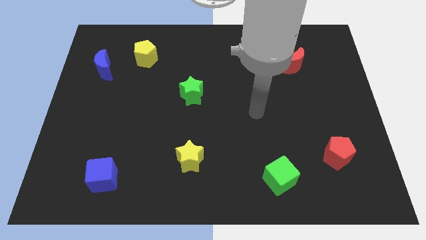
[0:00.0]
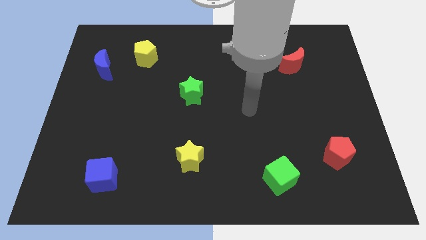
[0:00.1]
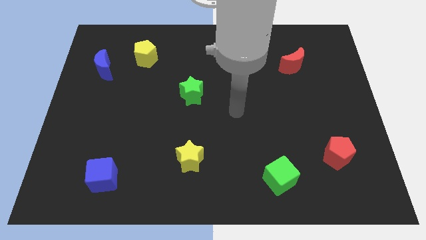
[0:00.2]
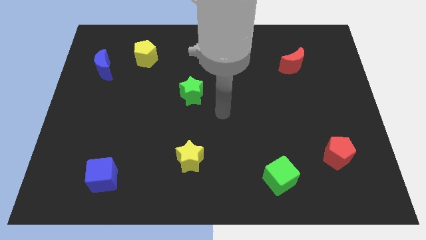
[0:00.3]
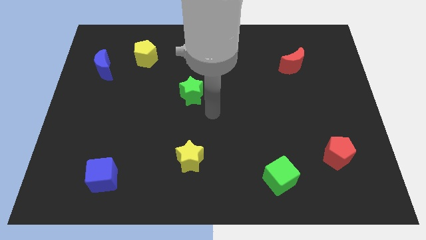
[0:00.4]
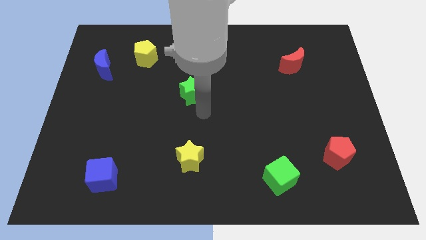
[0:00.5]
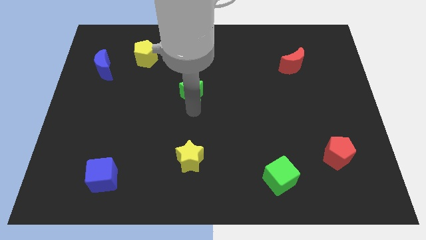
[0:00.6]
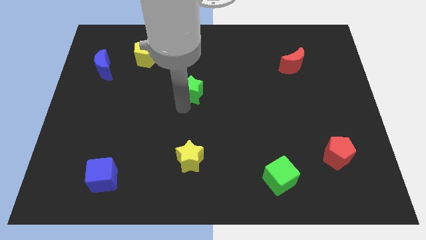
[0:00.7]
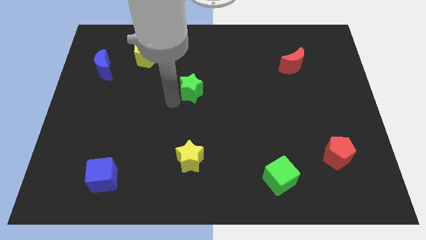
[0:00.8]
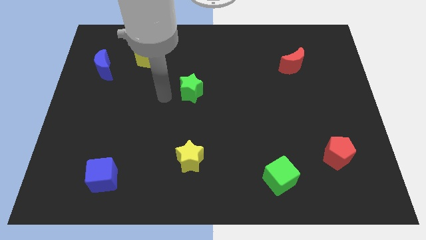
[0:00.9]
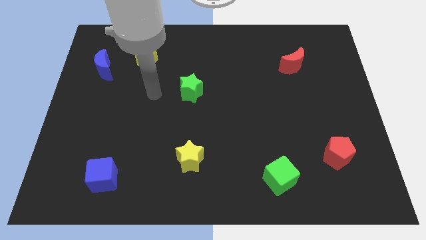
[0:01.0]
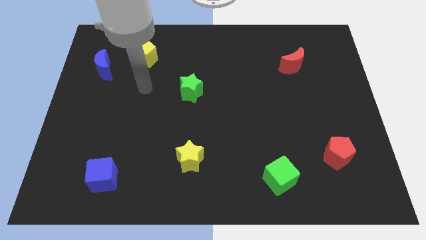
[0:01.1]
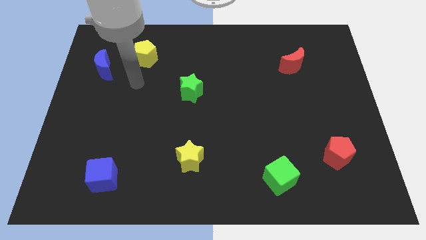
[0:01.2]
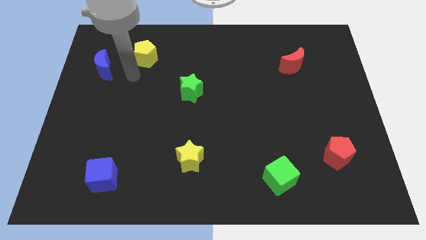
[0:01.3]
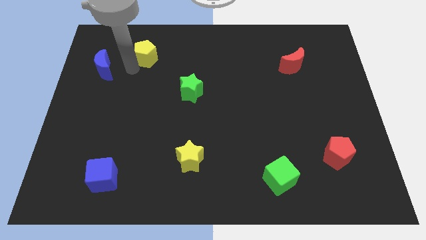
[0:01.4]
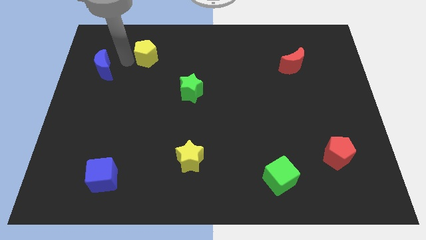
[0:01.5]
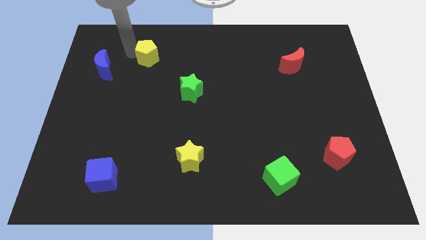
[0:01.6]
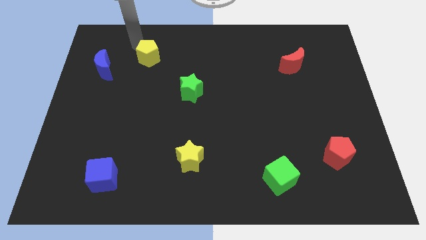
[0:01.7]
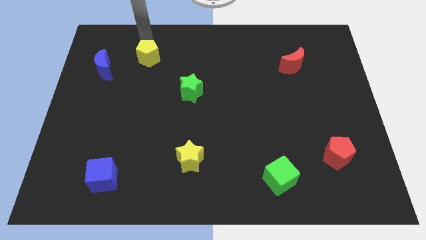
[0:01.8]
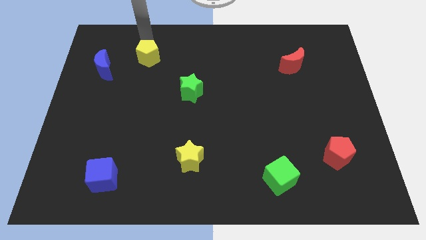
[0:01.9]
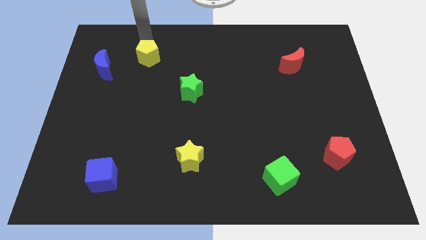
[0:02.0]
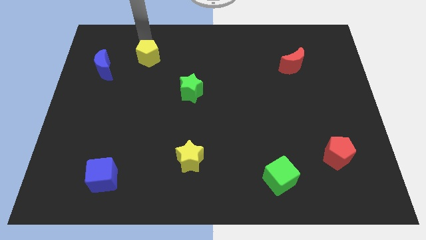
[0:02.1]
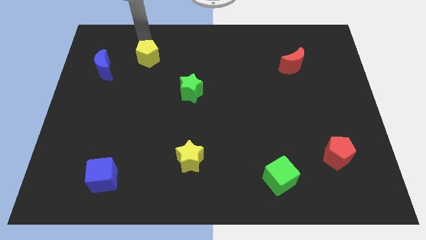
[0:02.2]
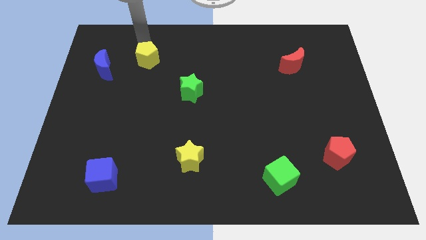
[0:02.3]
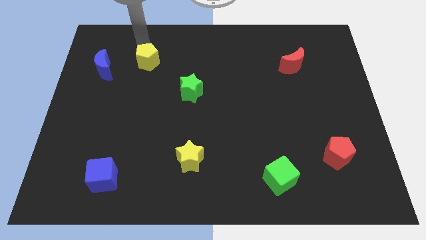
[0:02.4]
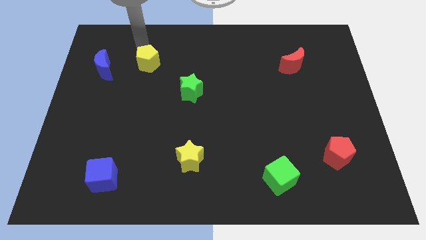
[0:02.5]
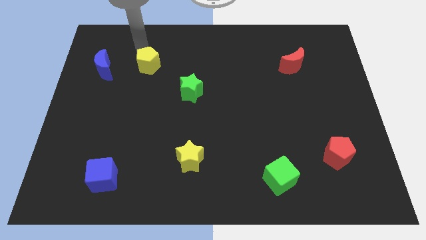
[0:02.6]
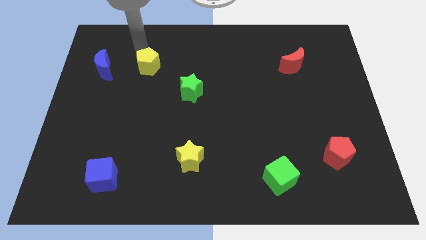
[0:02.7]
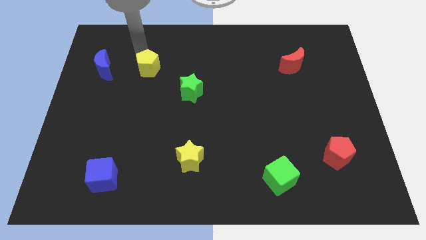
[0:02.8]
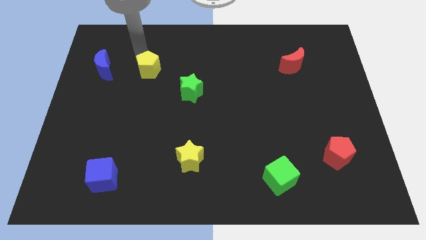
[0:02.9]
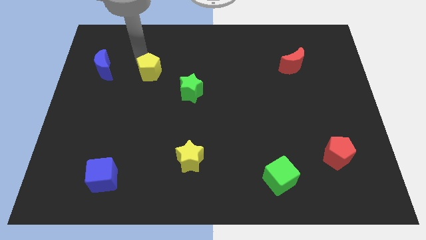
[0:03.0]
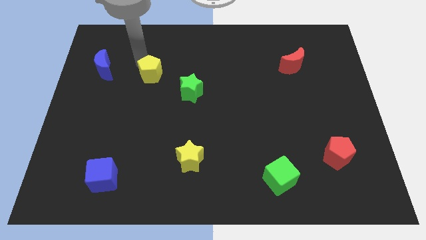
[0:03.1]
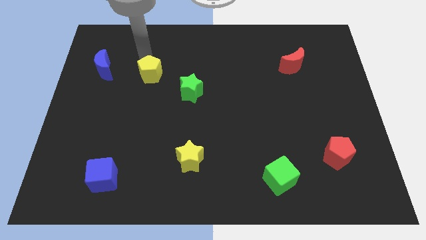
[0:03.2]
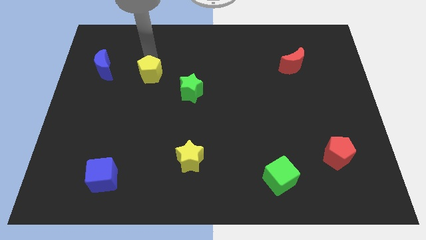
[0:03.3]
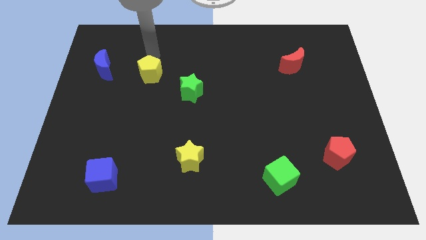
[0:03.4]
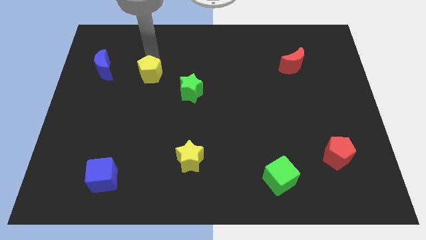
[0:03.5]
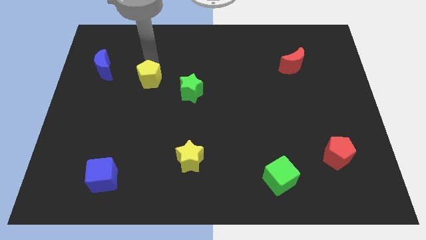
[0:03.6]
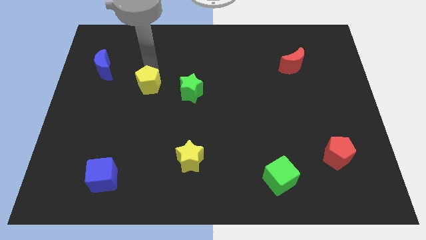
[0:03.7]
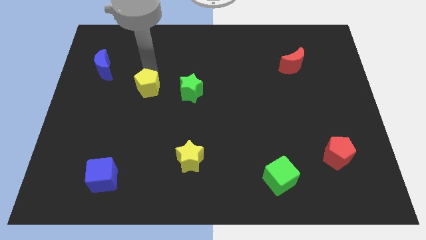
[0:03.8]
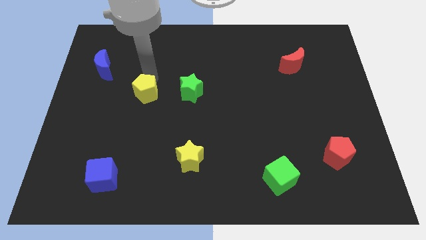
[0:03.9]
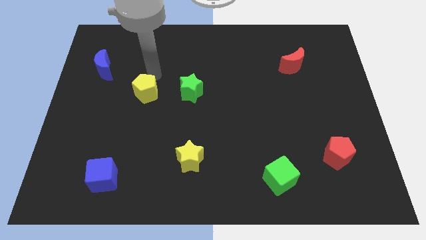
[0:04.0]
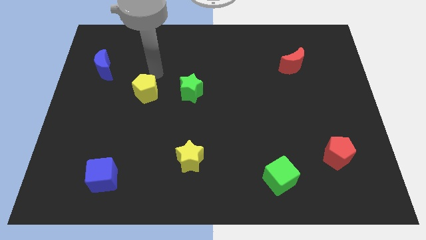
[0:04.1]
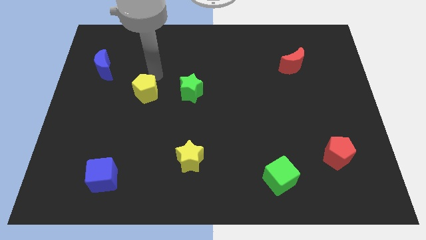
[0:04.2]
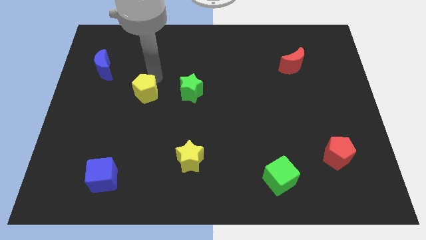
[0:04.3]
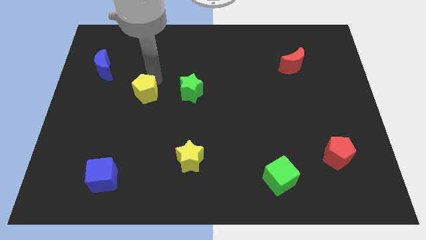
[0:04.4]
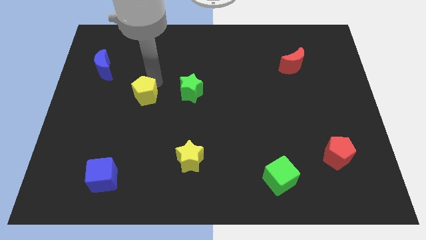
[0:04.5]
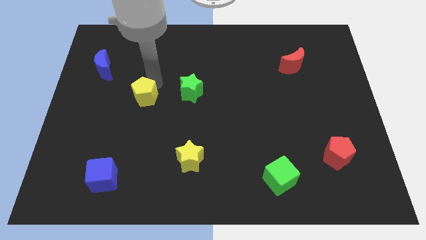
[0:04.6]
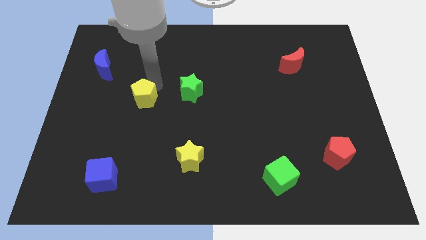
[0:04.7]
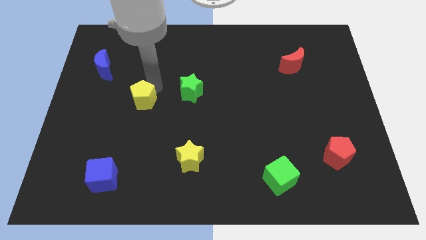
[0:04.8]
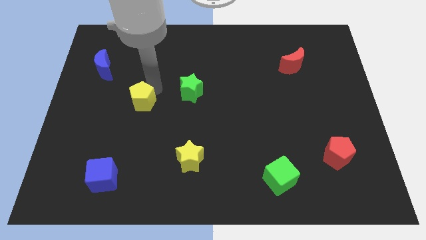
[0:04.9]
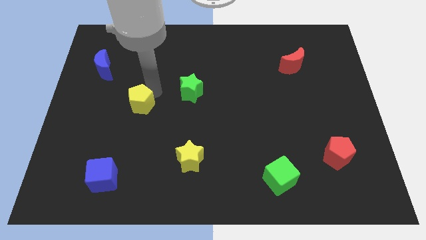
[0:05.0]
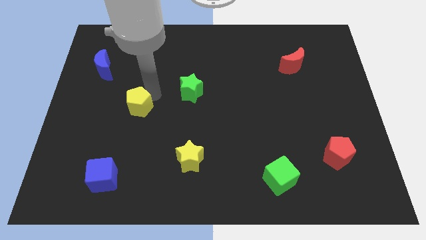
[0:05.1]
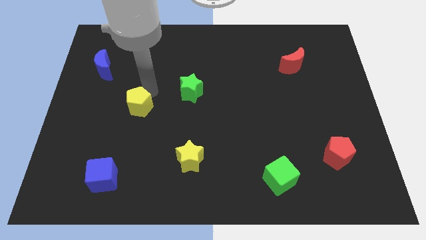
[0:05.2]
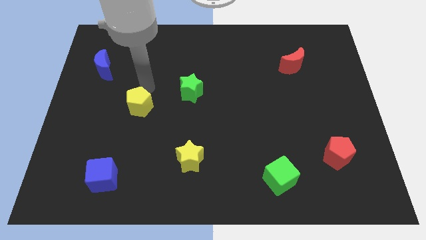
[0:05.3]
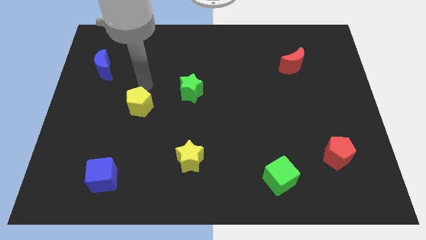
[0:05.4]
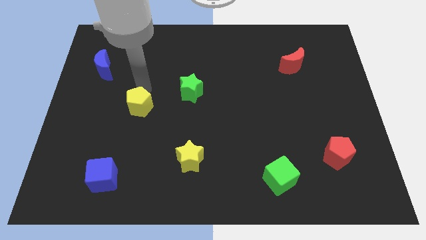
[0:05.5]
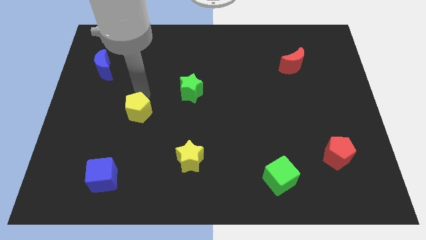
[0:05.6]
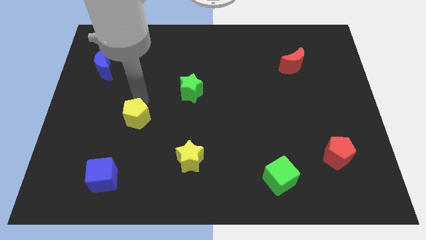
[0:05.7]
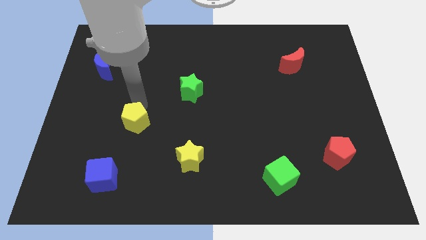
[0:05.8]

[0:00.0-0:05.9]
slide the yellow pentagon down

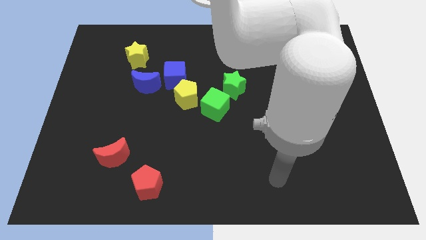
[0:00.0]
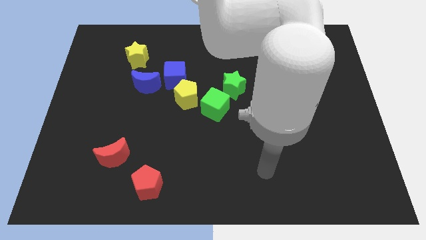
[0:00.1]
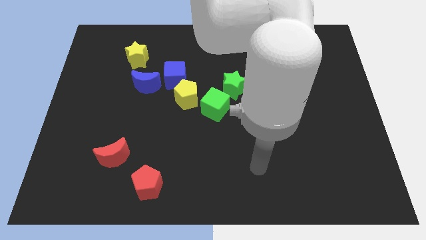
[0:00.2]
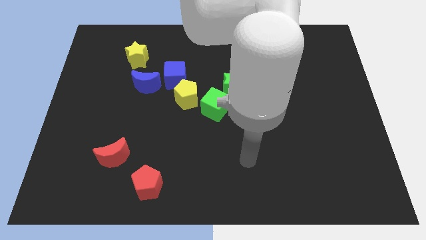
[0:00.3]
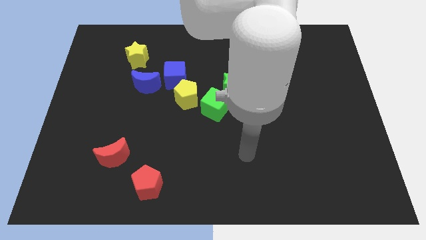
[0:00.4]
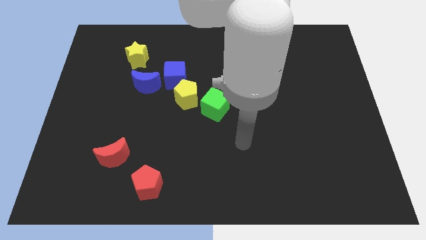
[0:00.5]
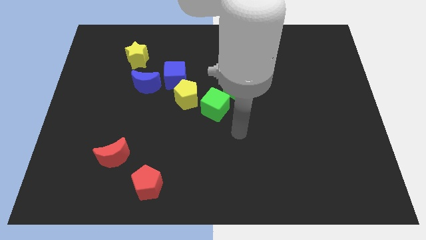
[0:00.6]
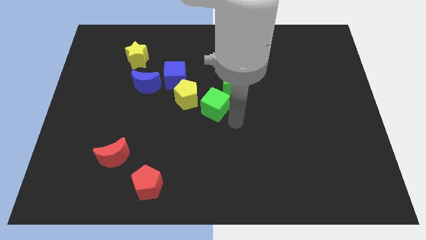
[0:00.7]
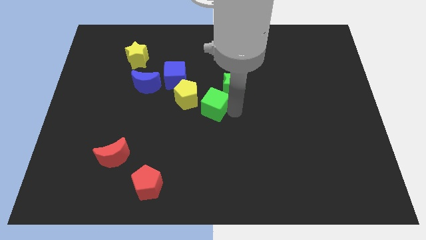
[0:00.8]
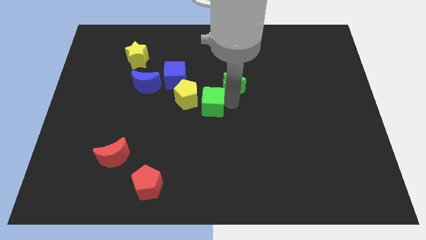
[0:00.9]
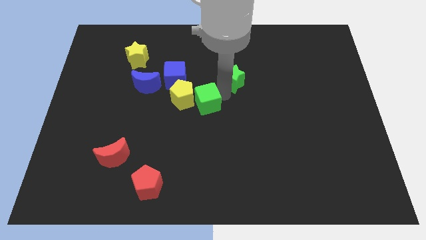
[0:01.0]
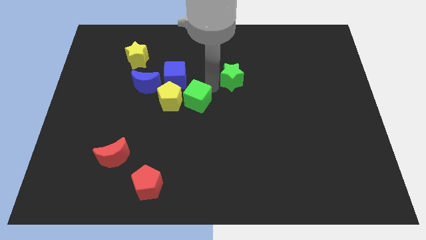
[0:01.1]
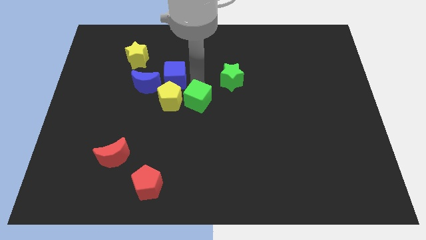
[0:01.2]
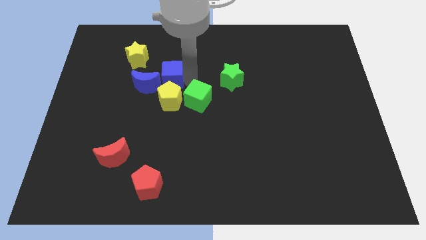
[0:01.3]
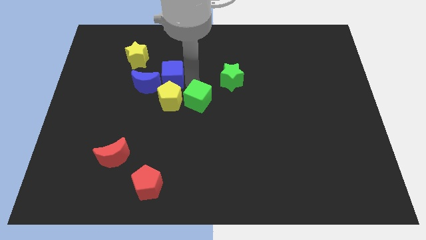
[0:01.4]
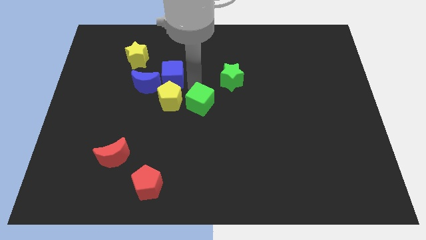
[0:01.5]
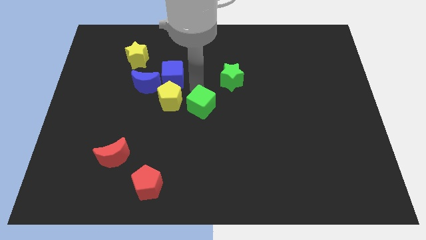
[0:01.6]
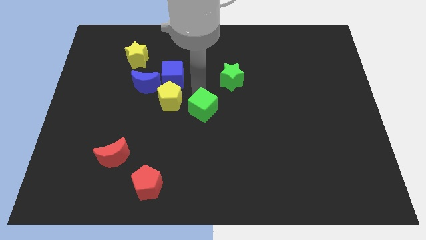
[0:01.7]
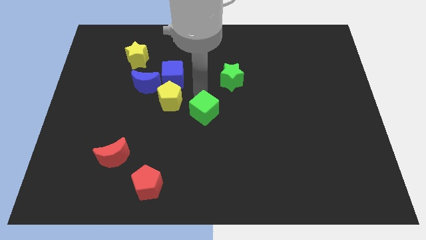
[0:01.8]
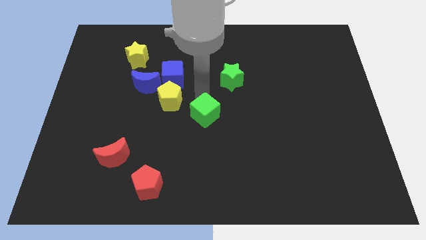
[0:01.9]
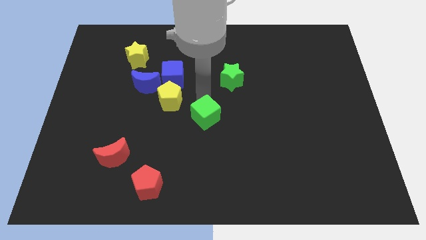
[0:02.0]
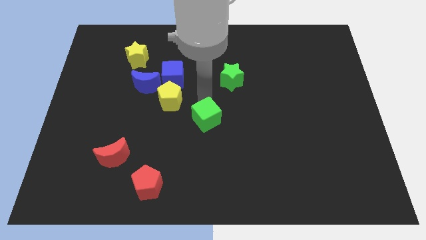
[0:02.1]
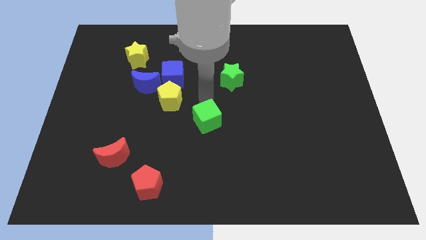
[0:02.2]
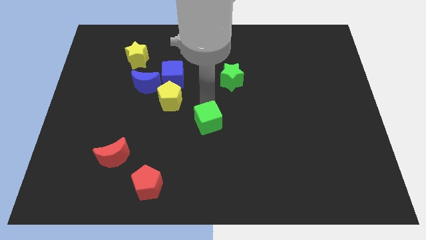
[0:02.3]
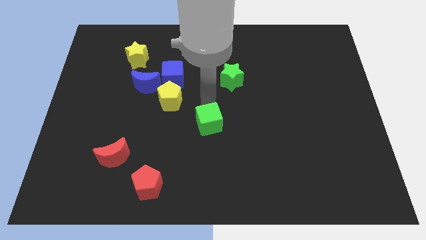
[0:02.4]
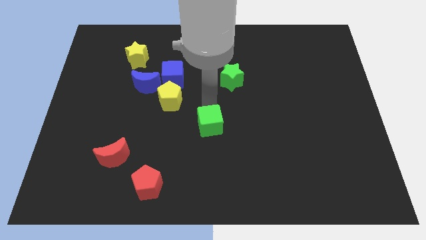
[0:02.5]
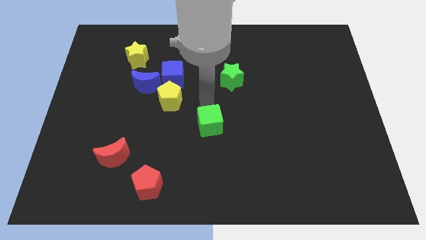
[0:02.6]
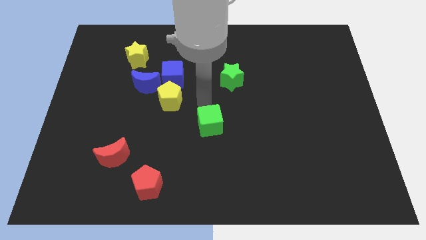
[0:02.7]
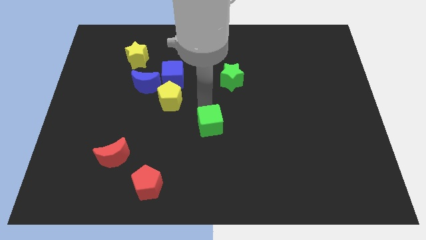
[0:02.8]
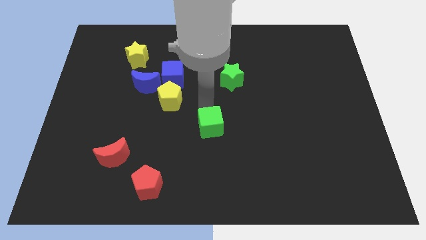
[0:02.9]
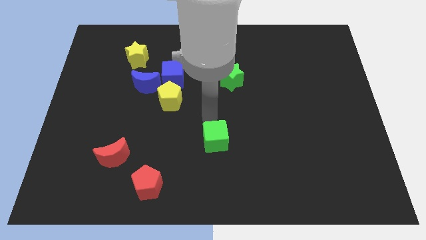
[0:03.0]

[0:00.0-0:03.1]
push the green cube downwards slightly
